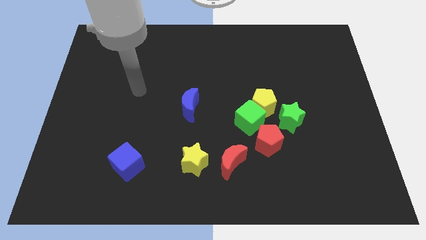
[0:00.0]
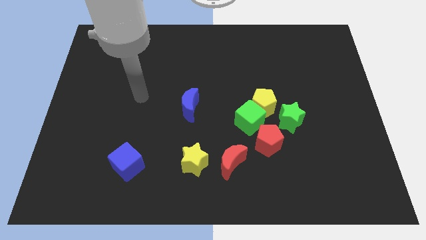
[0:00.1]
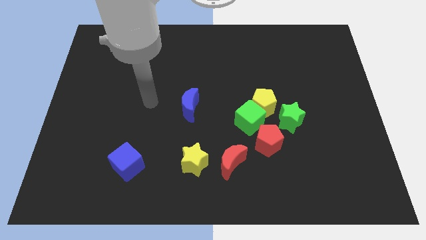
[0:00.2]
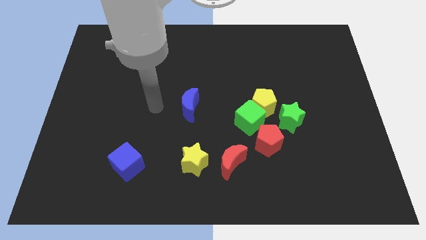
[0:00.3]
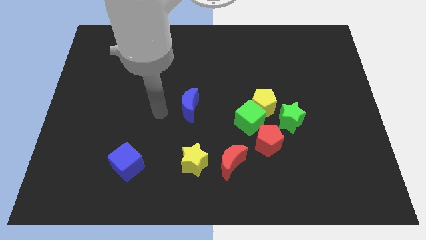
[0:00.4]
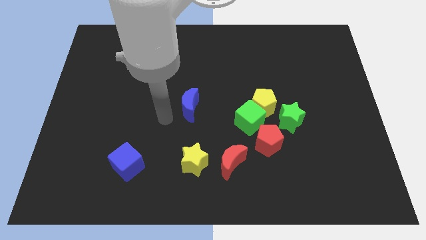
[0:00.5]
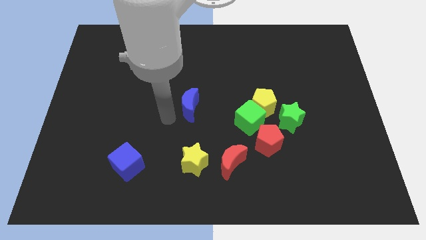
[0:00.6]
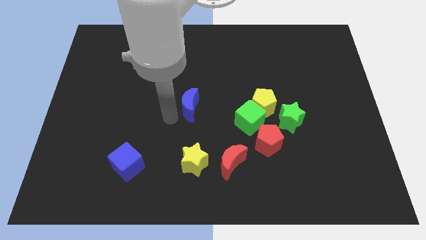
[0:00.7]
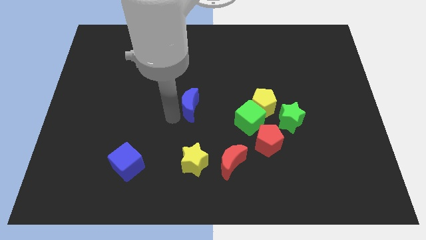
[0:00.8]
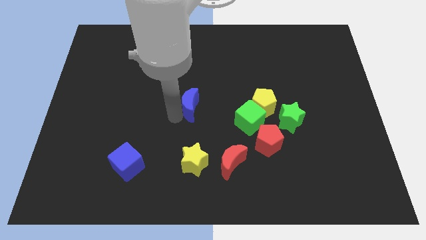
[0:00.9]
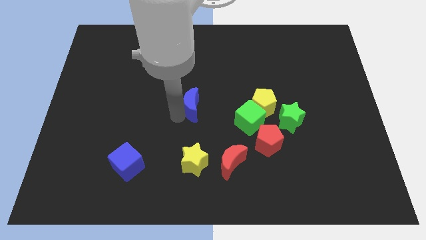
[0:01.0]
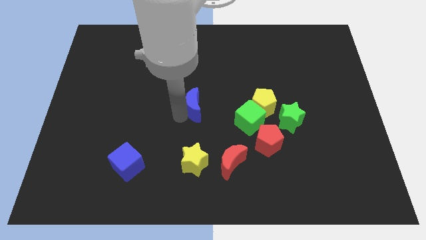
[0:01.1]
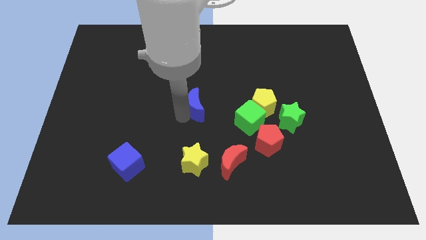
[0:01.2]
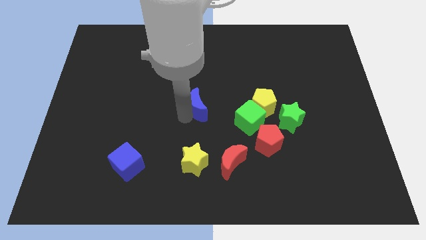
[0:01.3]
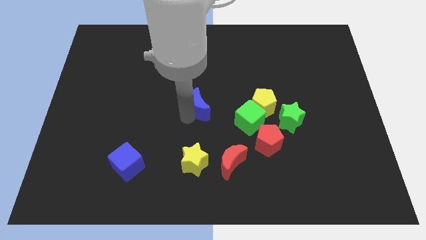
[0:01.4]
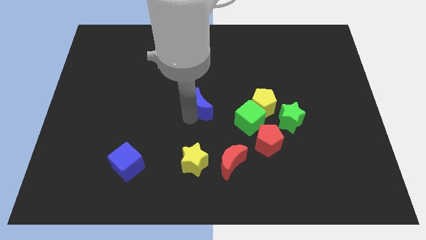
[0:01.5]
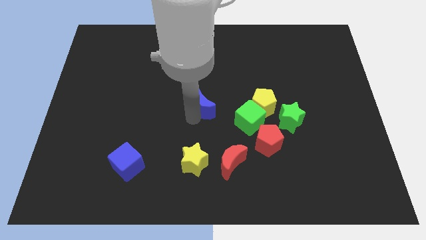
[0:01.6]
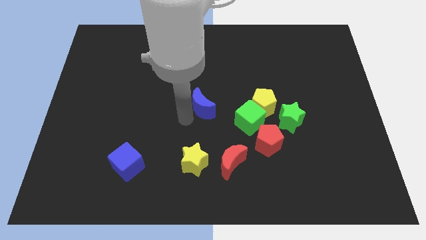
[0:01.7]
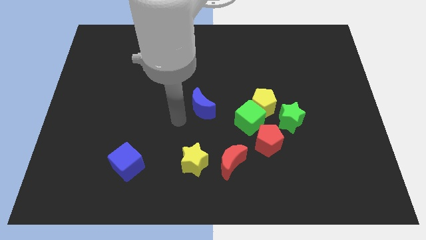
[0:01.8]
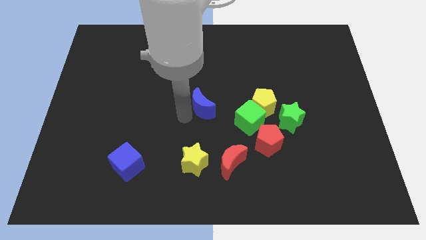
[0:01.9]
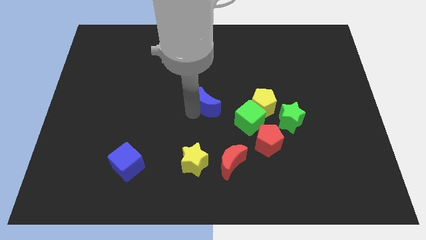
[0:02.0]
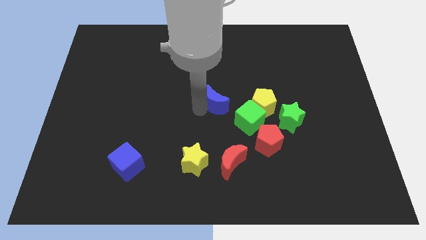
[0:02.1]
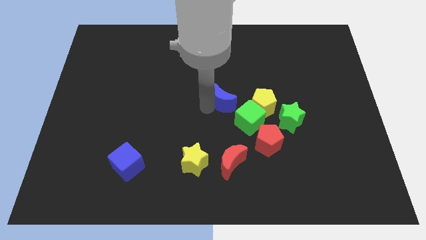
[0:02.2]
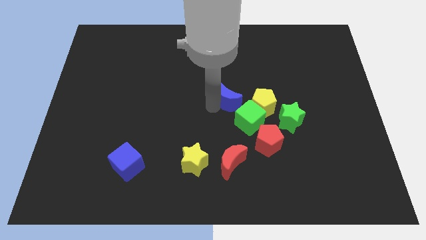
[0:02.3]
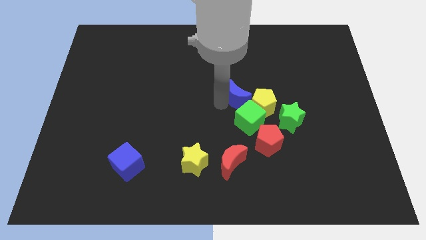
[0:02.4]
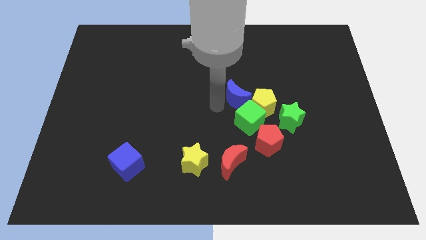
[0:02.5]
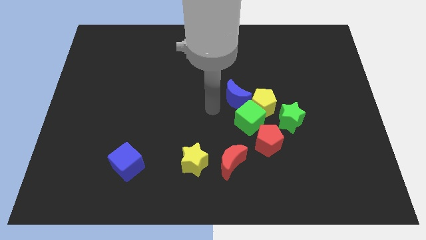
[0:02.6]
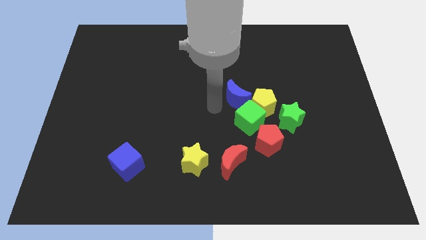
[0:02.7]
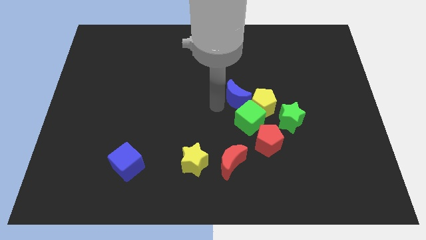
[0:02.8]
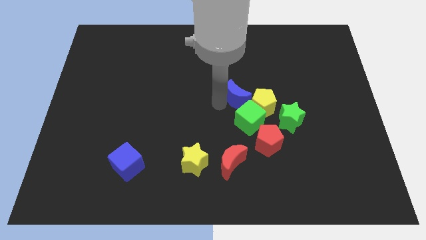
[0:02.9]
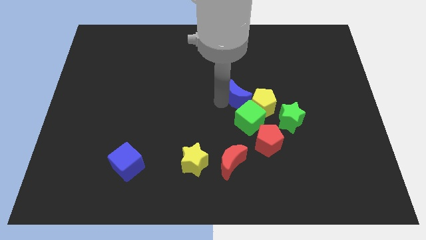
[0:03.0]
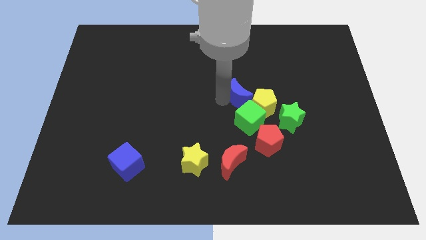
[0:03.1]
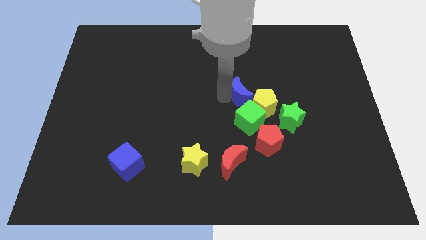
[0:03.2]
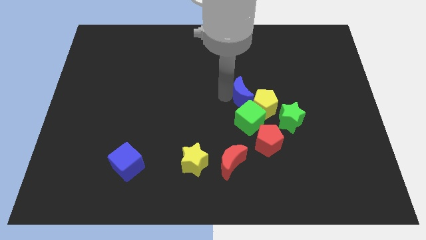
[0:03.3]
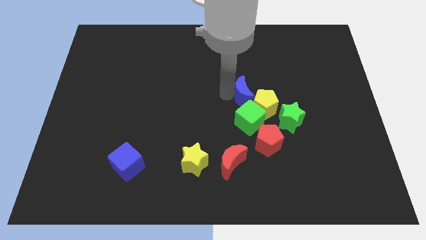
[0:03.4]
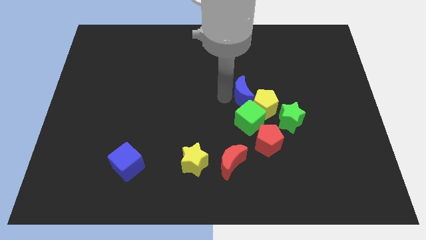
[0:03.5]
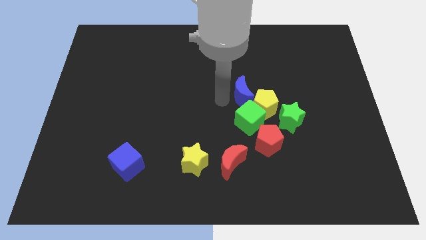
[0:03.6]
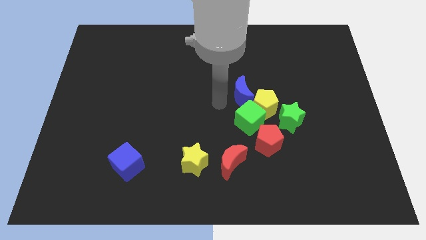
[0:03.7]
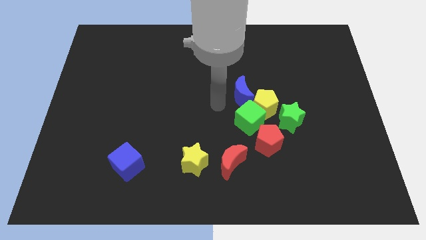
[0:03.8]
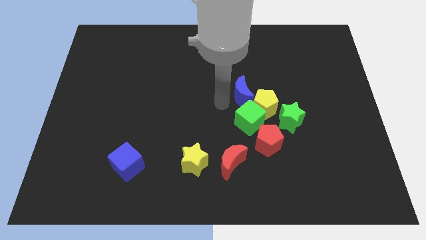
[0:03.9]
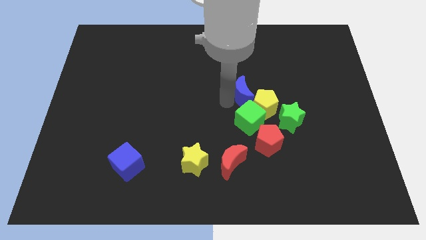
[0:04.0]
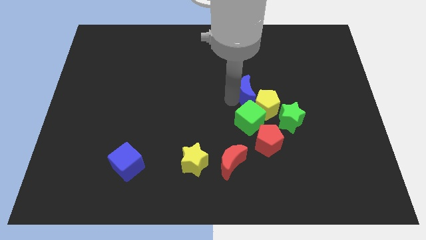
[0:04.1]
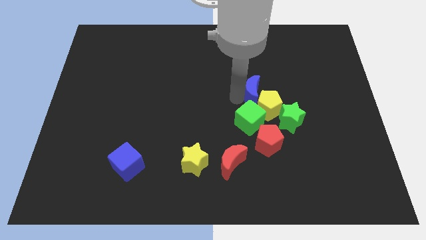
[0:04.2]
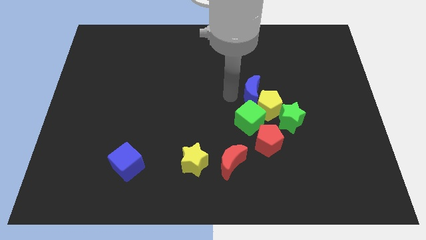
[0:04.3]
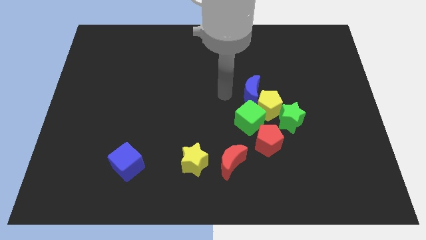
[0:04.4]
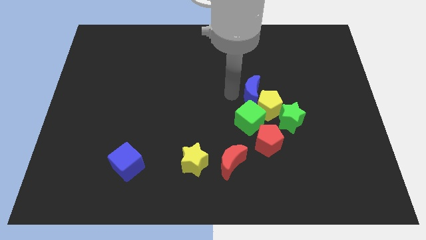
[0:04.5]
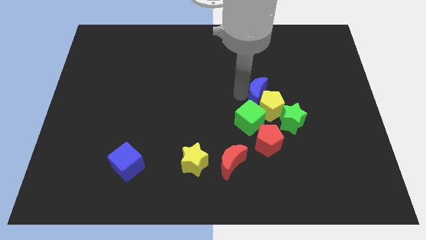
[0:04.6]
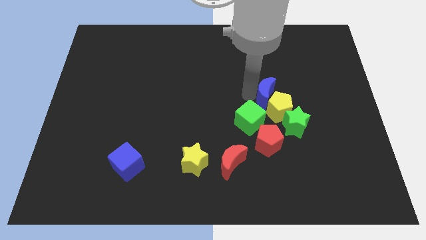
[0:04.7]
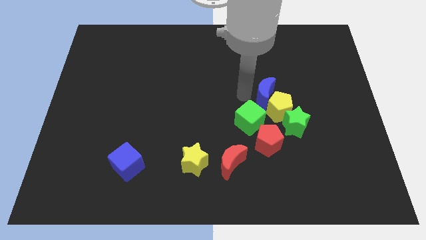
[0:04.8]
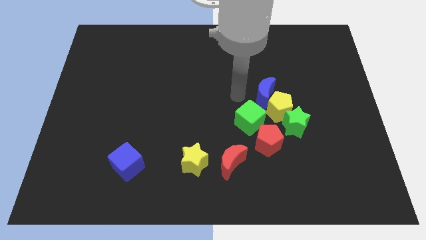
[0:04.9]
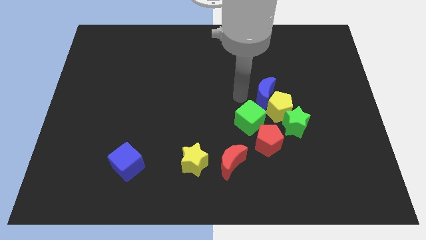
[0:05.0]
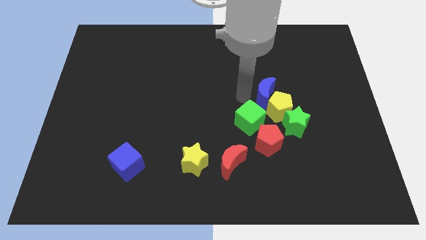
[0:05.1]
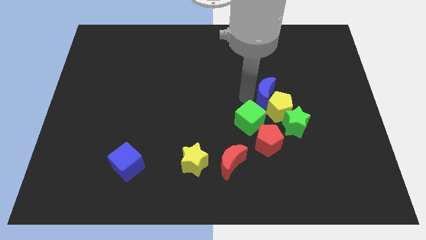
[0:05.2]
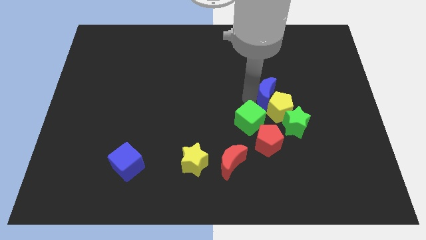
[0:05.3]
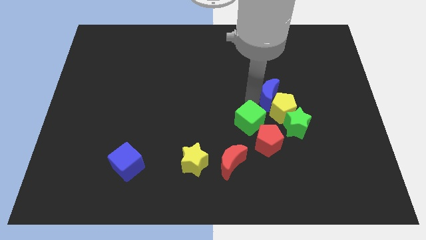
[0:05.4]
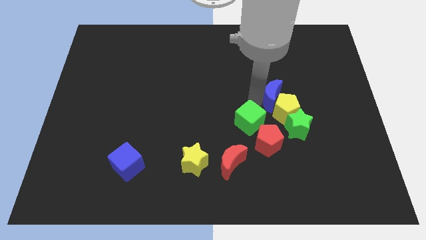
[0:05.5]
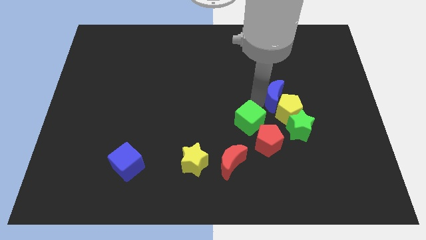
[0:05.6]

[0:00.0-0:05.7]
slide the blue moon to the right

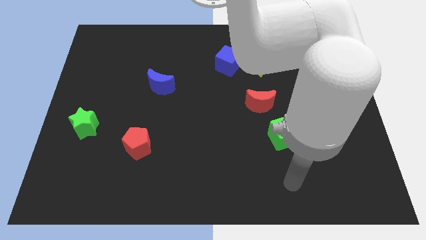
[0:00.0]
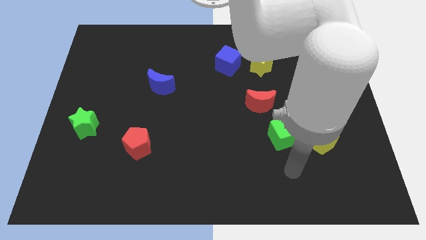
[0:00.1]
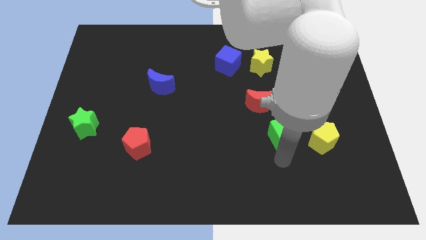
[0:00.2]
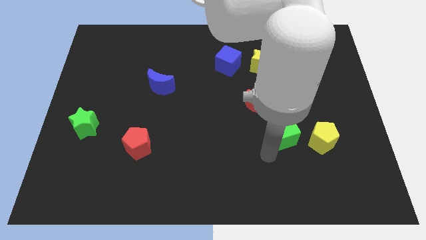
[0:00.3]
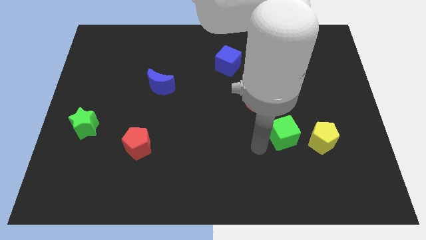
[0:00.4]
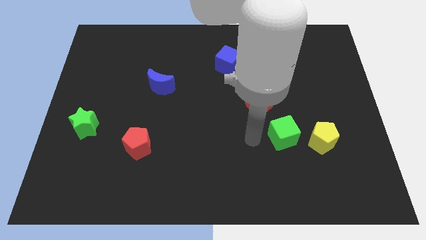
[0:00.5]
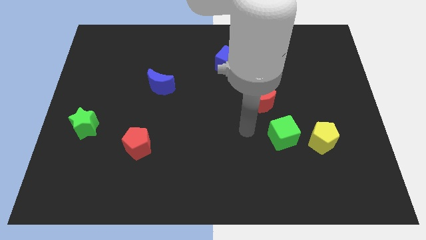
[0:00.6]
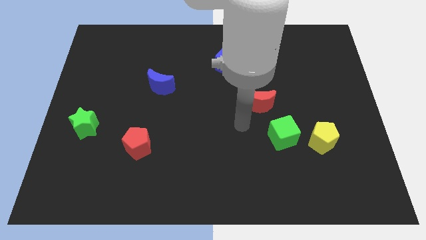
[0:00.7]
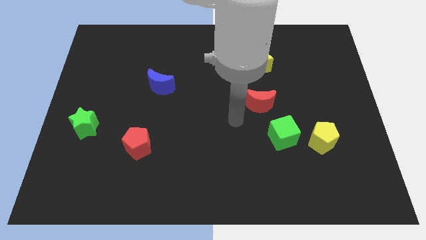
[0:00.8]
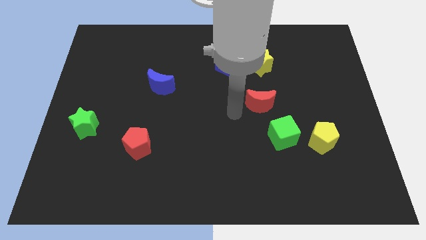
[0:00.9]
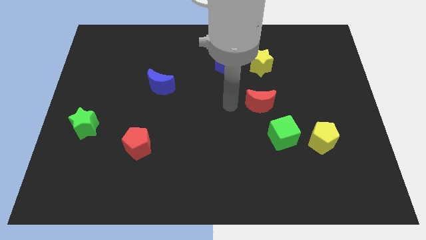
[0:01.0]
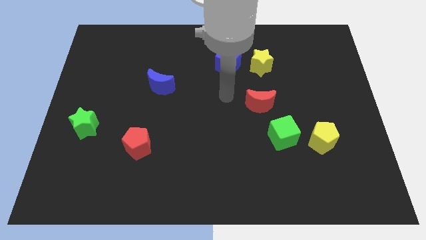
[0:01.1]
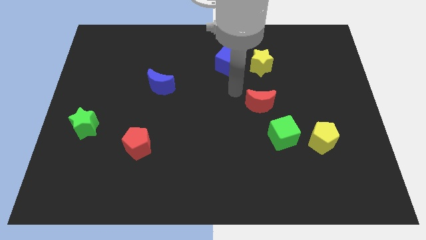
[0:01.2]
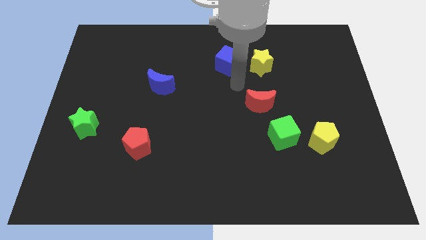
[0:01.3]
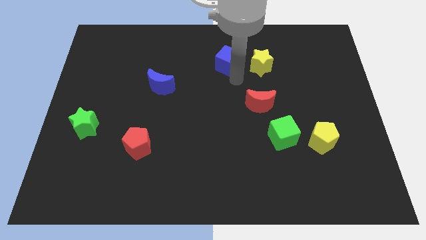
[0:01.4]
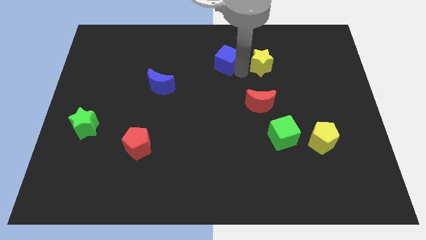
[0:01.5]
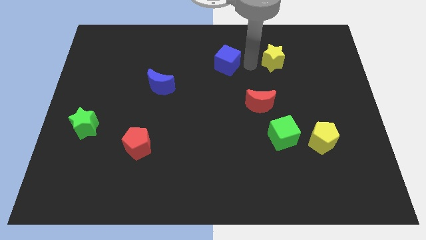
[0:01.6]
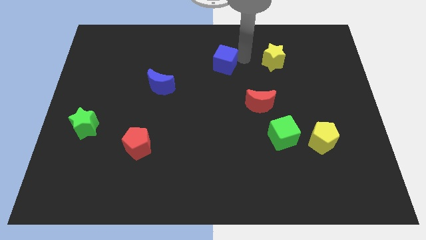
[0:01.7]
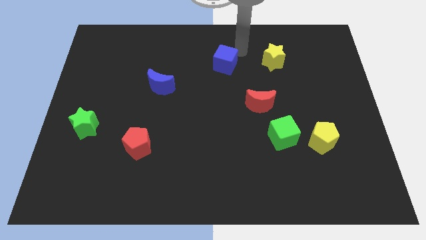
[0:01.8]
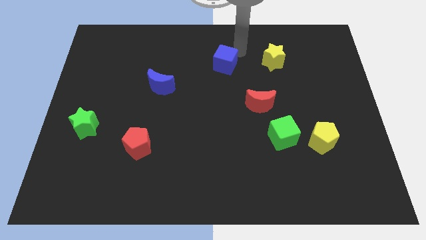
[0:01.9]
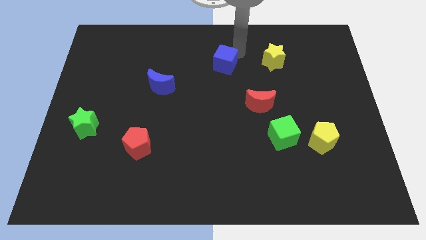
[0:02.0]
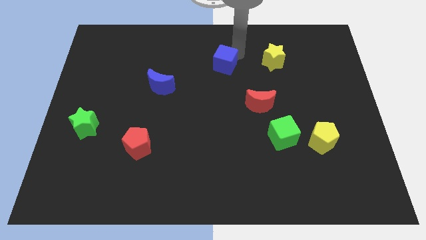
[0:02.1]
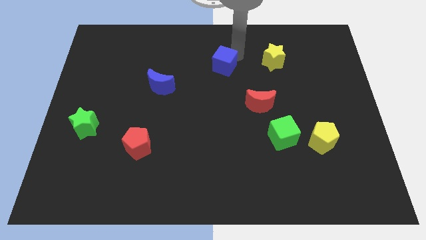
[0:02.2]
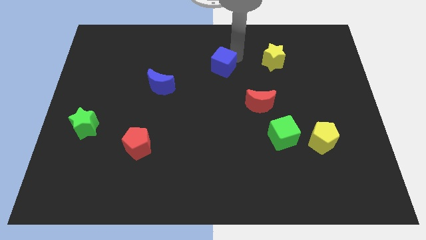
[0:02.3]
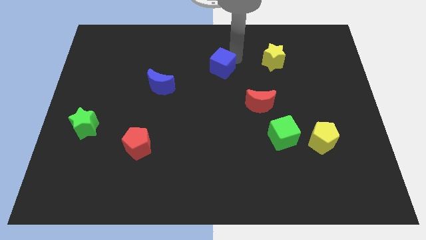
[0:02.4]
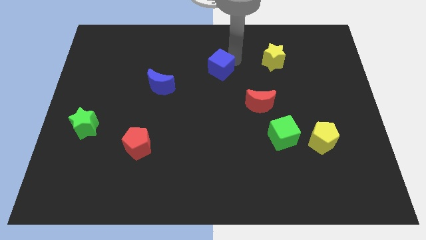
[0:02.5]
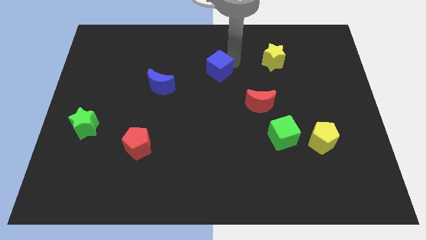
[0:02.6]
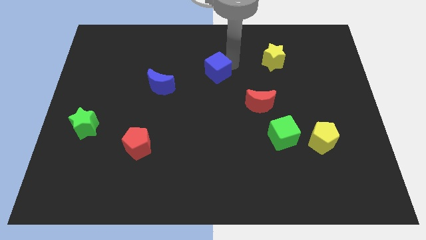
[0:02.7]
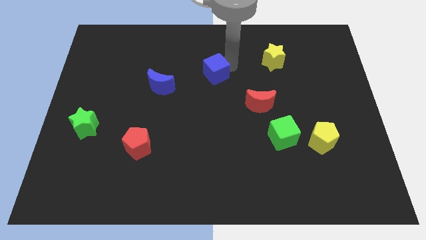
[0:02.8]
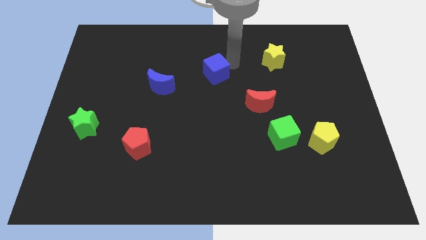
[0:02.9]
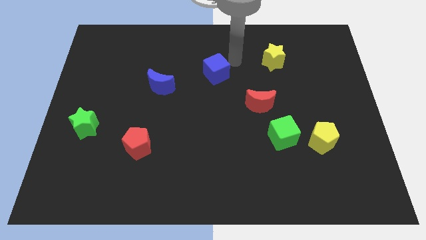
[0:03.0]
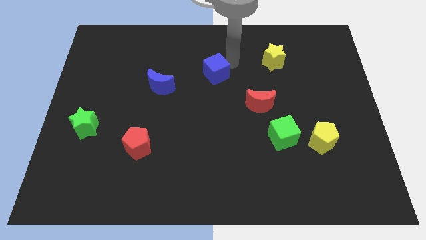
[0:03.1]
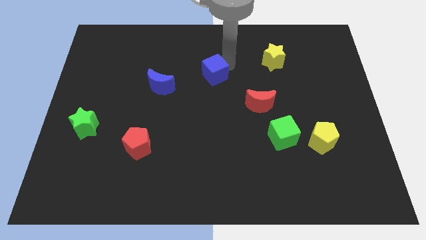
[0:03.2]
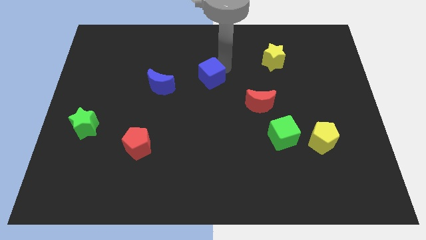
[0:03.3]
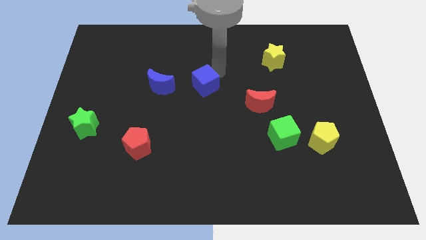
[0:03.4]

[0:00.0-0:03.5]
slightly push the blue cube down and to the left
